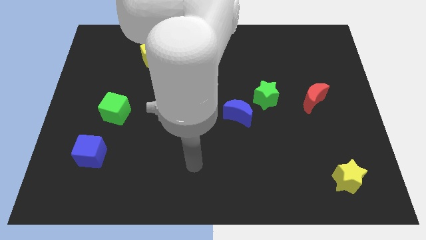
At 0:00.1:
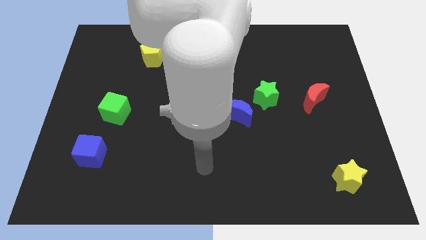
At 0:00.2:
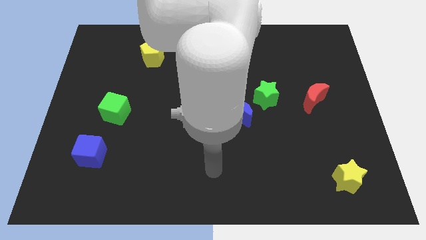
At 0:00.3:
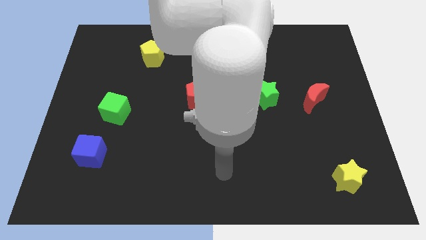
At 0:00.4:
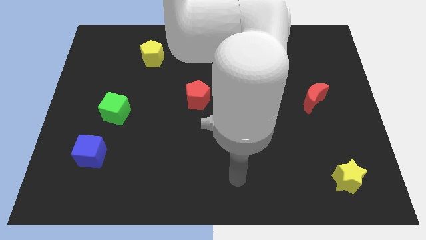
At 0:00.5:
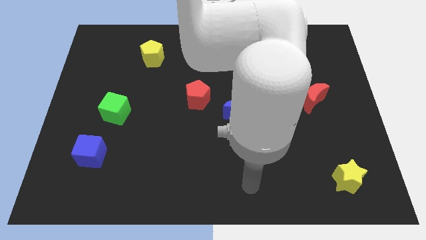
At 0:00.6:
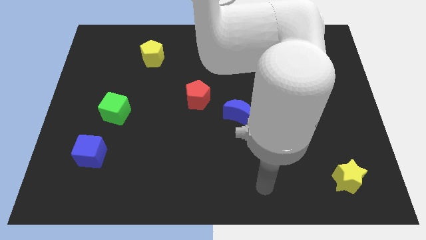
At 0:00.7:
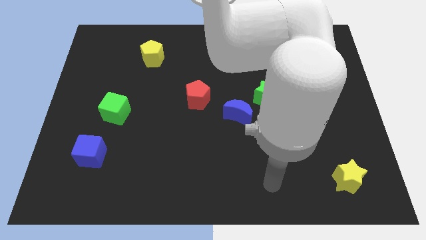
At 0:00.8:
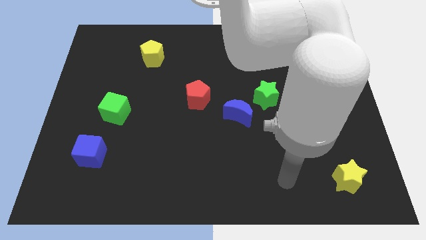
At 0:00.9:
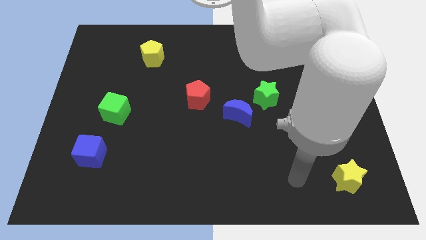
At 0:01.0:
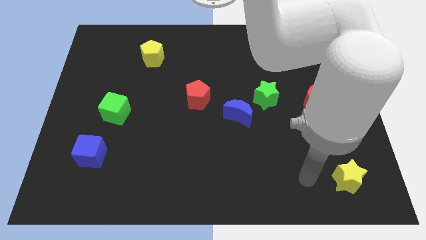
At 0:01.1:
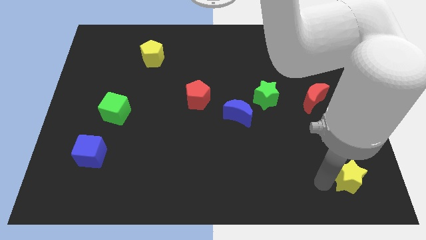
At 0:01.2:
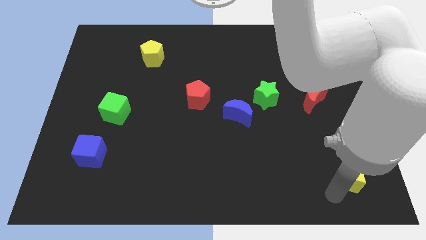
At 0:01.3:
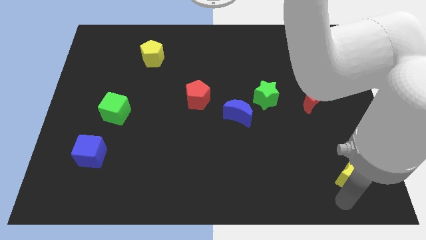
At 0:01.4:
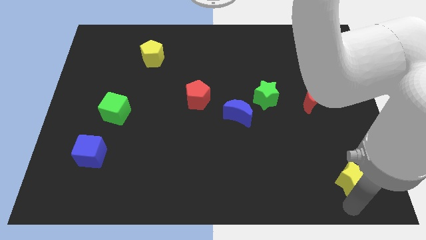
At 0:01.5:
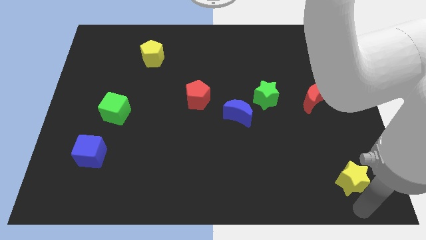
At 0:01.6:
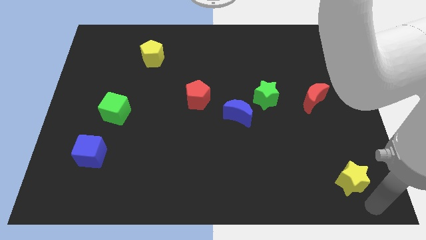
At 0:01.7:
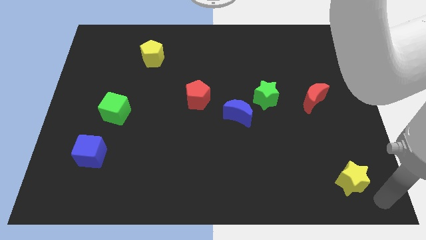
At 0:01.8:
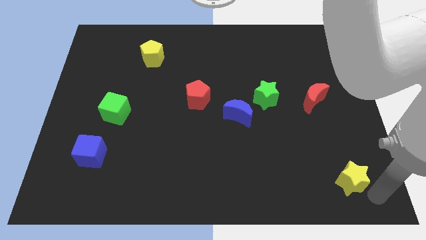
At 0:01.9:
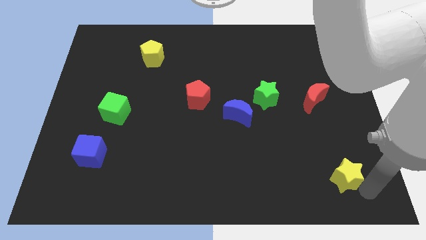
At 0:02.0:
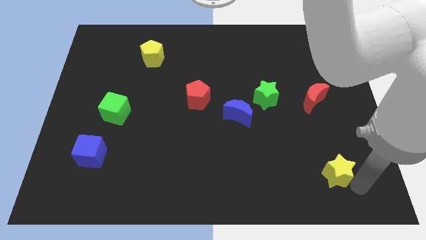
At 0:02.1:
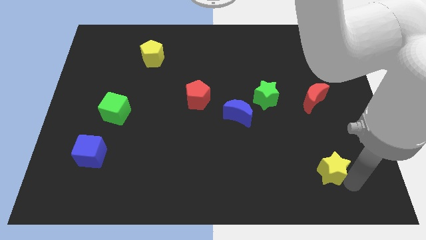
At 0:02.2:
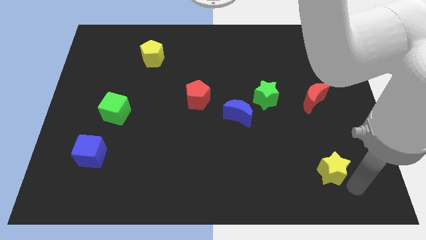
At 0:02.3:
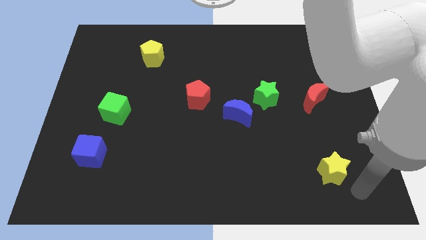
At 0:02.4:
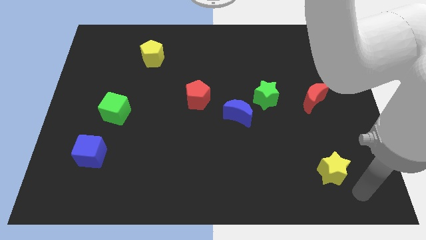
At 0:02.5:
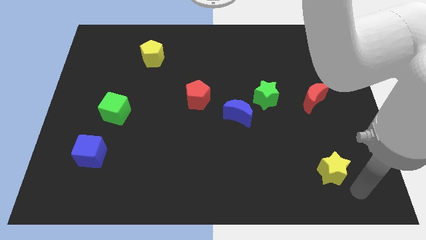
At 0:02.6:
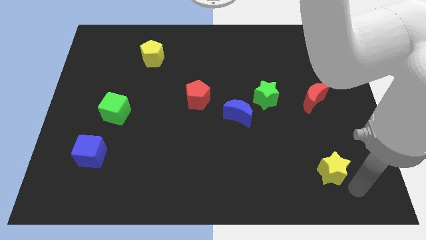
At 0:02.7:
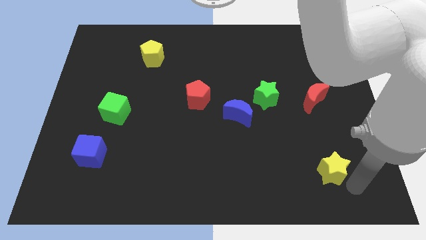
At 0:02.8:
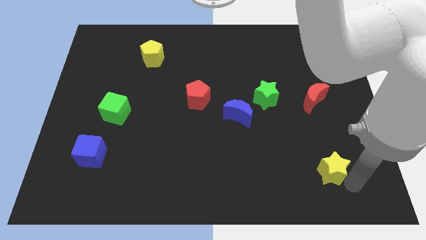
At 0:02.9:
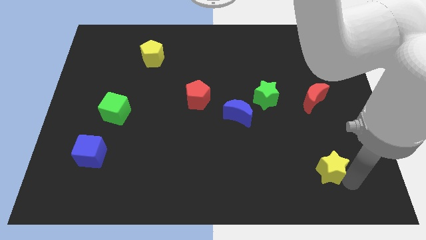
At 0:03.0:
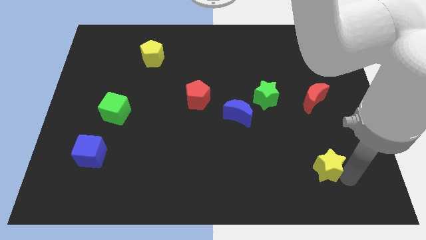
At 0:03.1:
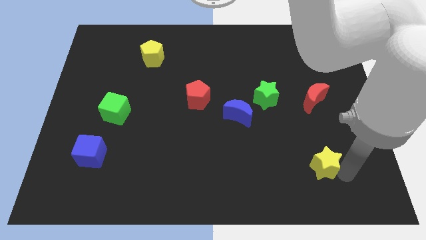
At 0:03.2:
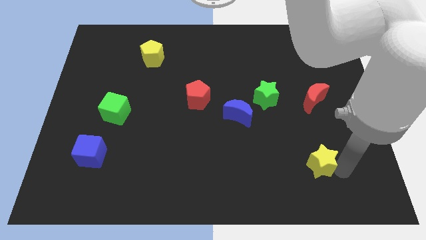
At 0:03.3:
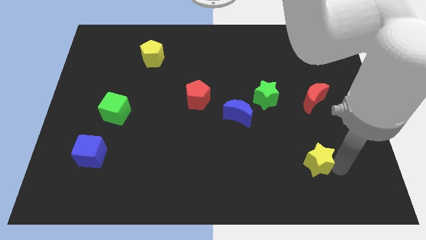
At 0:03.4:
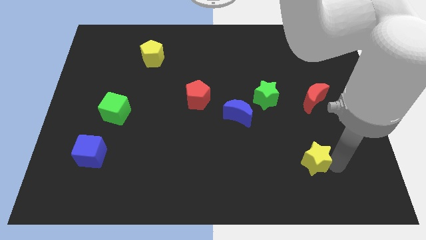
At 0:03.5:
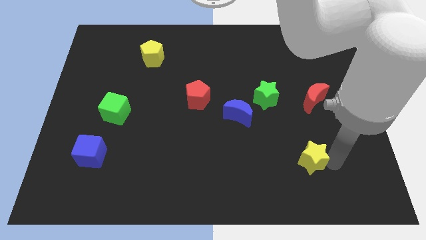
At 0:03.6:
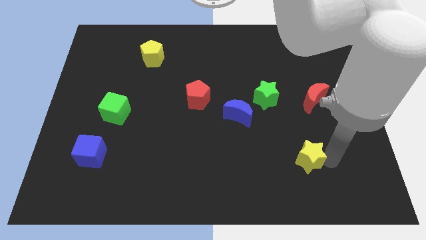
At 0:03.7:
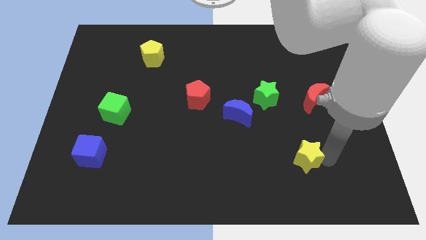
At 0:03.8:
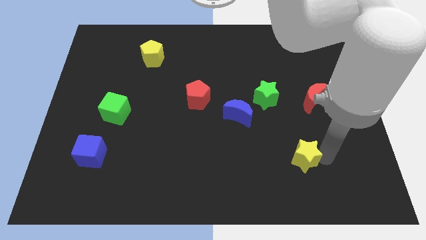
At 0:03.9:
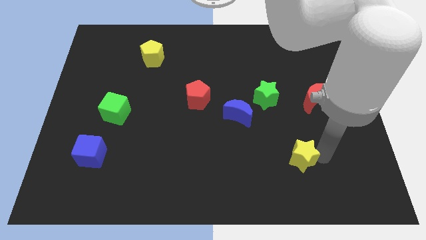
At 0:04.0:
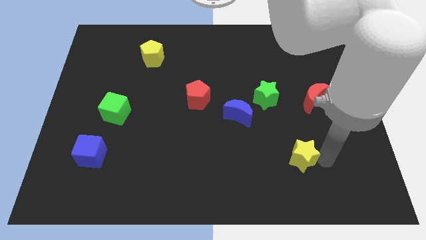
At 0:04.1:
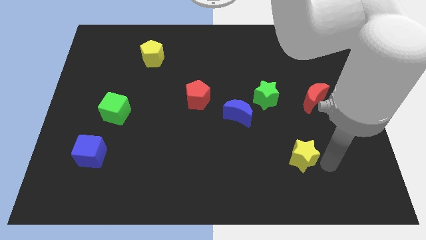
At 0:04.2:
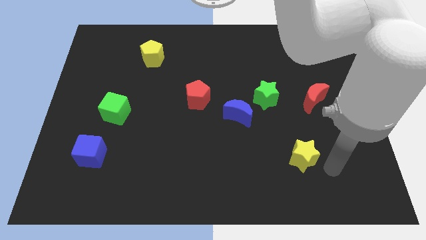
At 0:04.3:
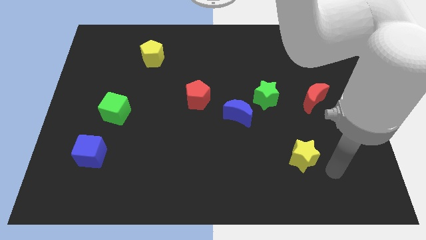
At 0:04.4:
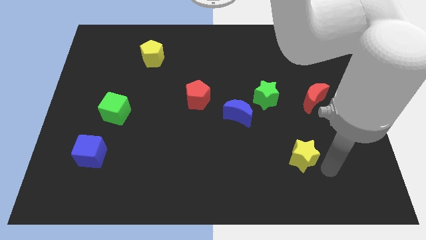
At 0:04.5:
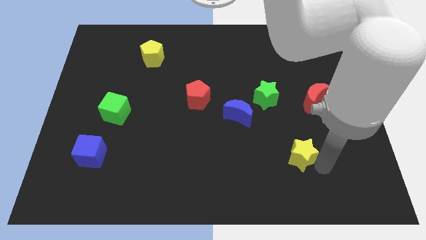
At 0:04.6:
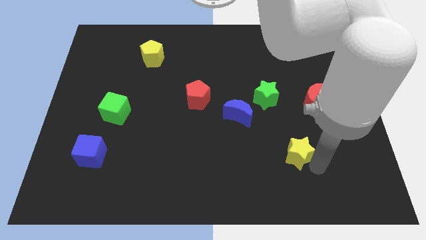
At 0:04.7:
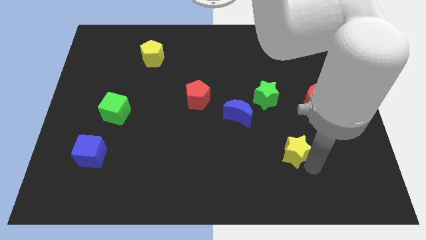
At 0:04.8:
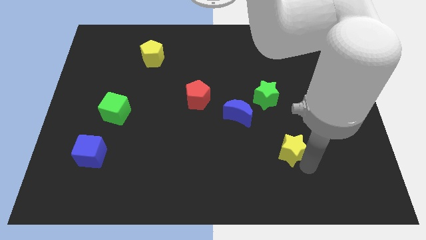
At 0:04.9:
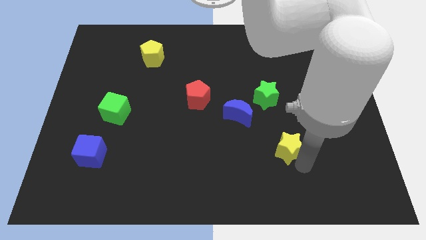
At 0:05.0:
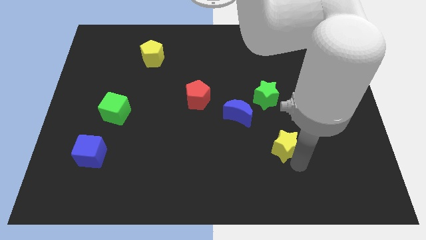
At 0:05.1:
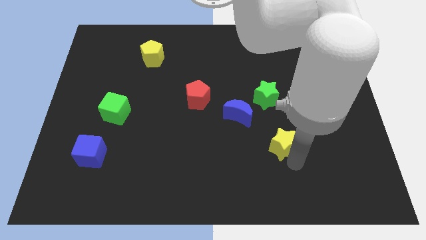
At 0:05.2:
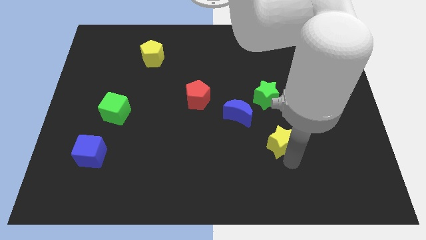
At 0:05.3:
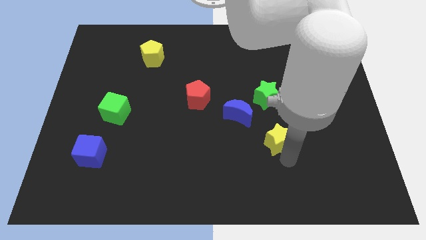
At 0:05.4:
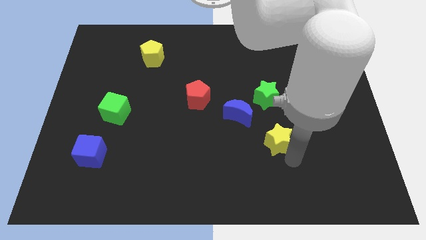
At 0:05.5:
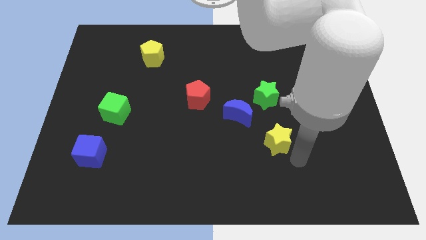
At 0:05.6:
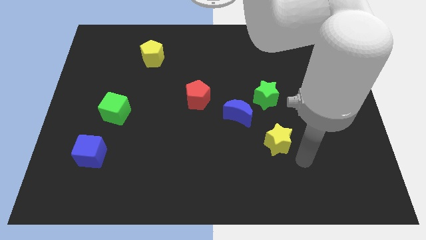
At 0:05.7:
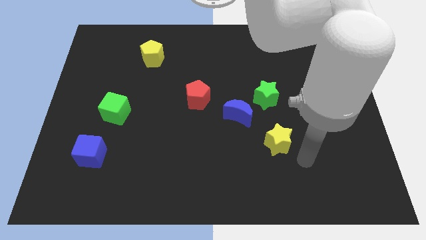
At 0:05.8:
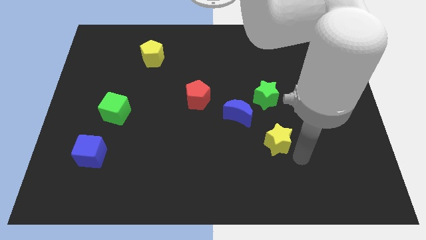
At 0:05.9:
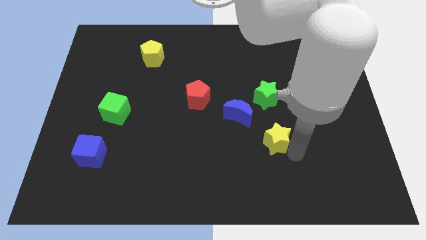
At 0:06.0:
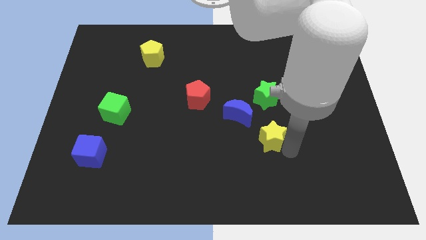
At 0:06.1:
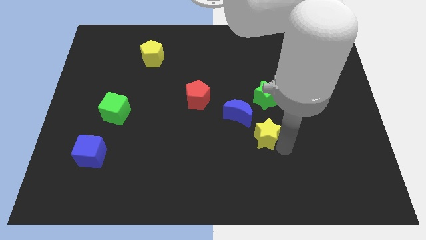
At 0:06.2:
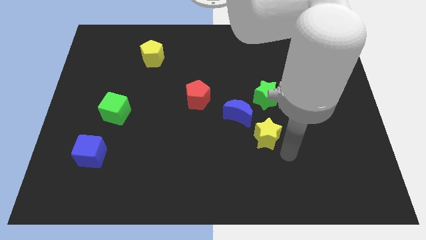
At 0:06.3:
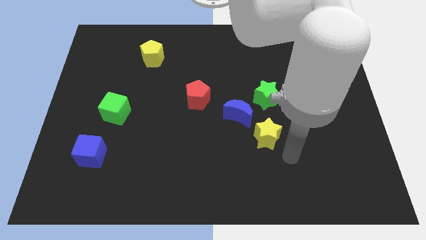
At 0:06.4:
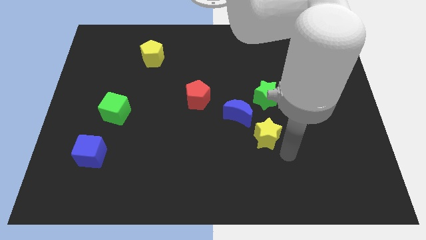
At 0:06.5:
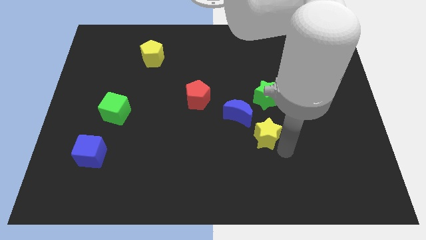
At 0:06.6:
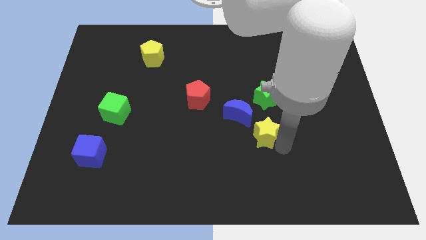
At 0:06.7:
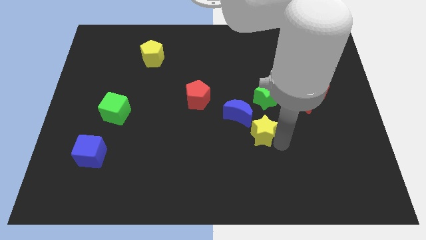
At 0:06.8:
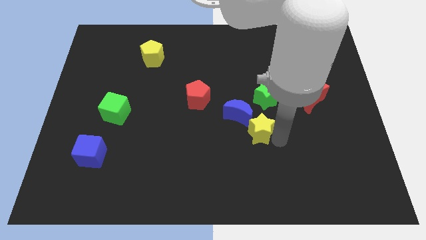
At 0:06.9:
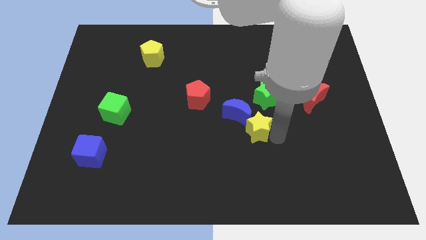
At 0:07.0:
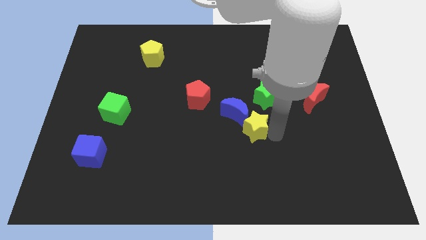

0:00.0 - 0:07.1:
move the yellow star close to the blue moon
